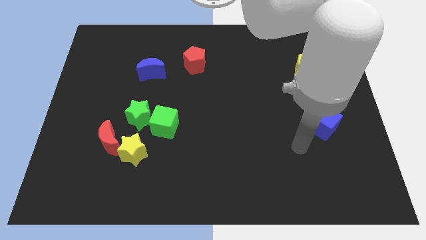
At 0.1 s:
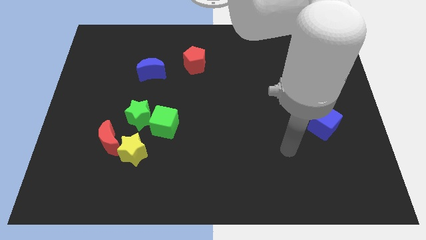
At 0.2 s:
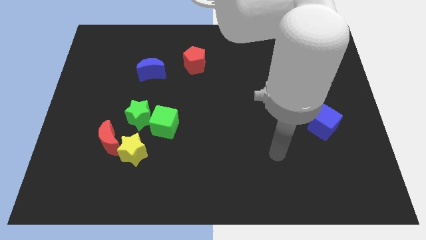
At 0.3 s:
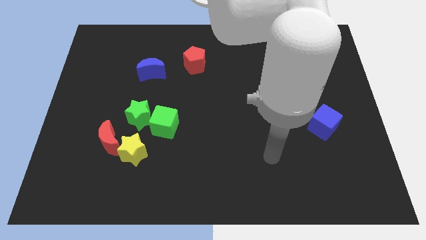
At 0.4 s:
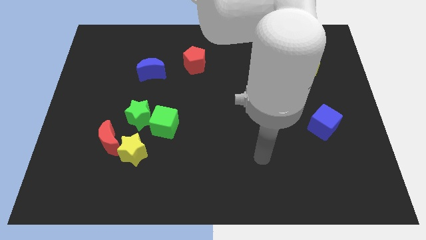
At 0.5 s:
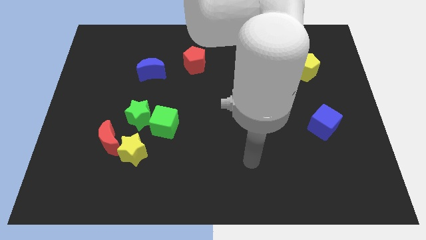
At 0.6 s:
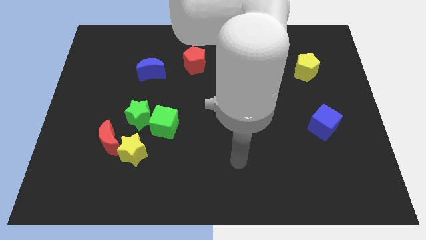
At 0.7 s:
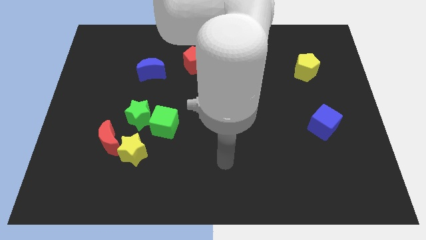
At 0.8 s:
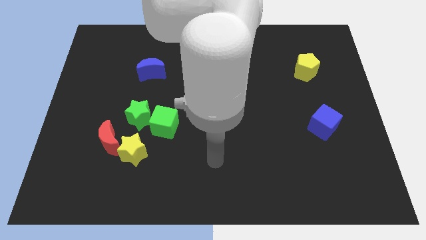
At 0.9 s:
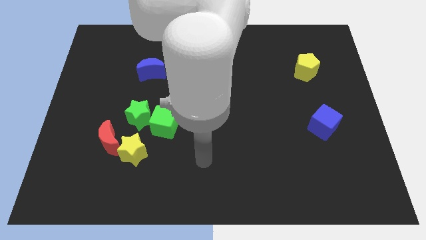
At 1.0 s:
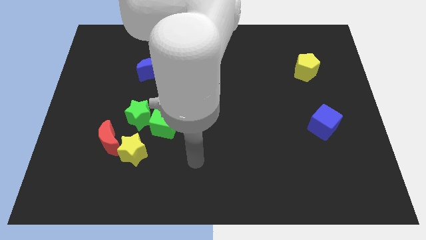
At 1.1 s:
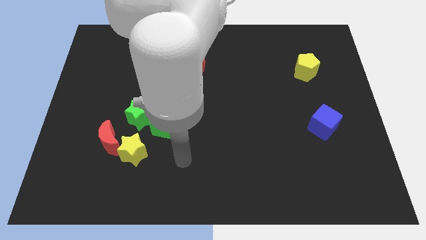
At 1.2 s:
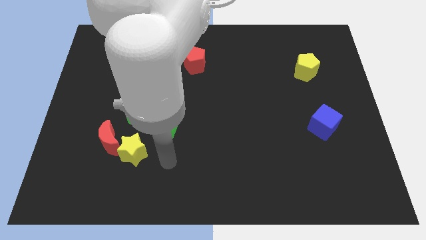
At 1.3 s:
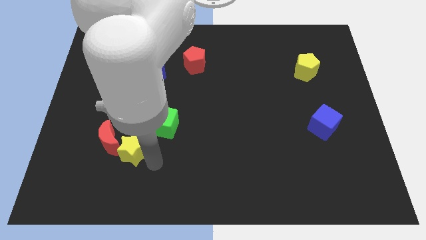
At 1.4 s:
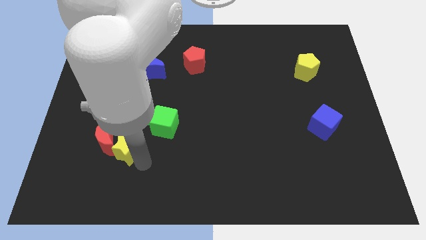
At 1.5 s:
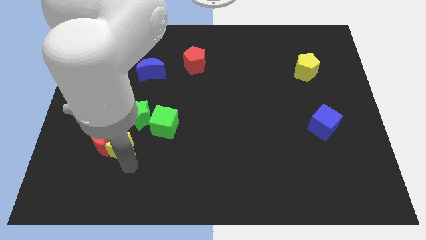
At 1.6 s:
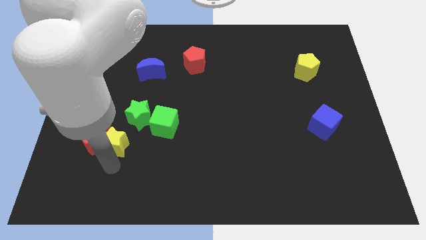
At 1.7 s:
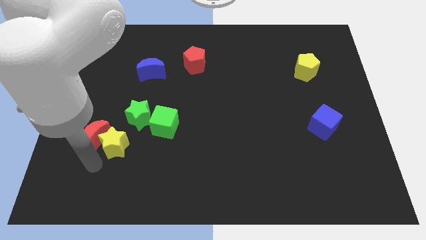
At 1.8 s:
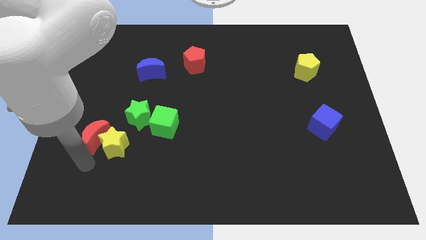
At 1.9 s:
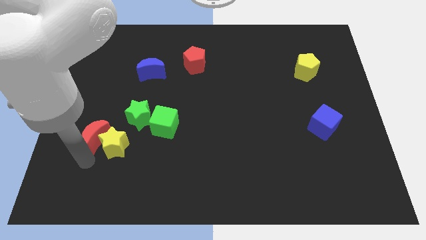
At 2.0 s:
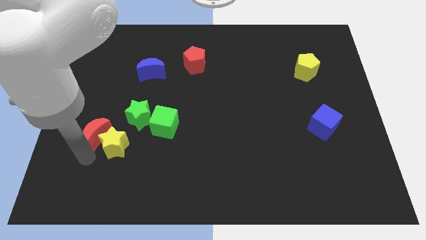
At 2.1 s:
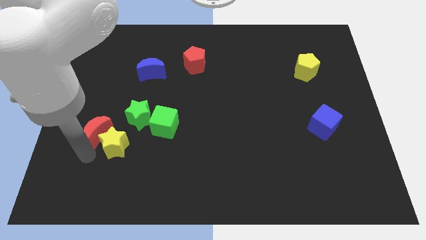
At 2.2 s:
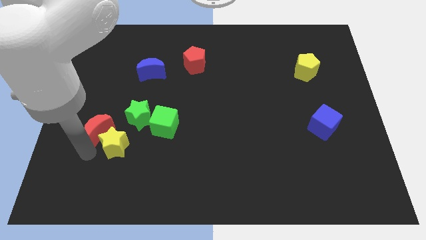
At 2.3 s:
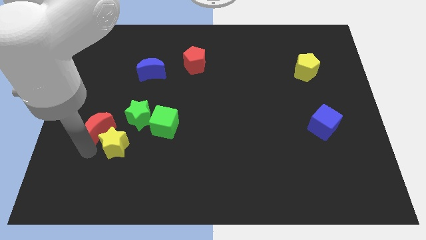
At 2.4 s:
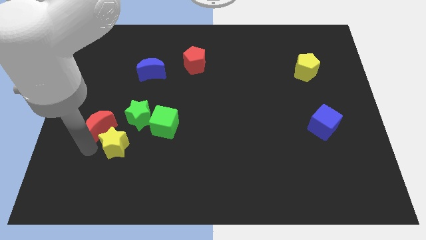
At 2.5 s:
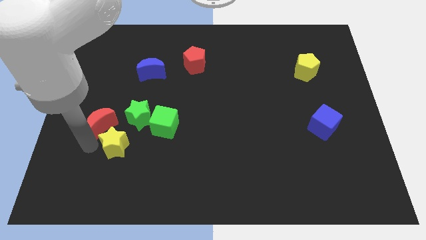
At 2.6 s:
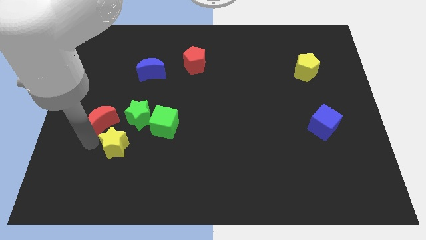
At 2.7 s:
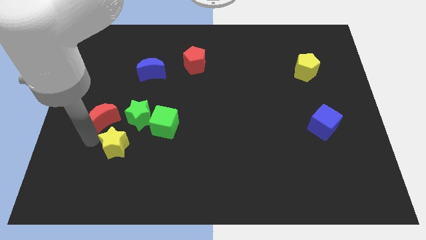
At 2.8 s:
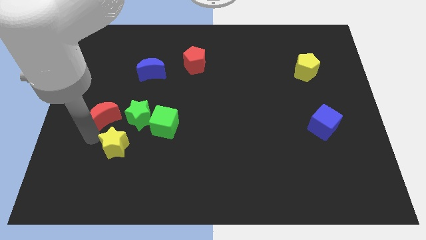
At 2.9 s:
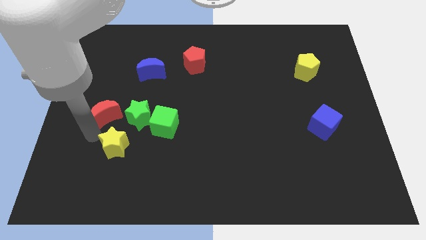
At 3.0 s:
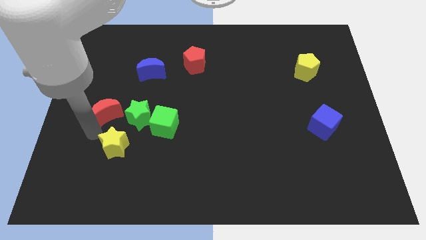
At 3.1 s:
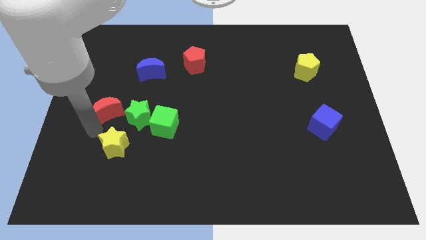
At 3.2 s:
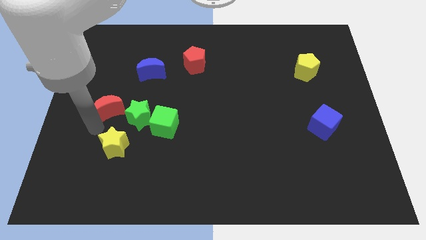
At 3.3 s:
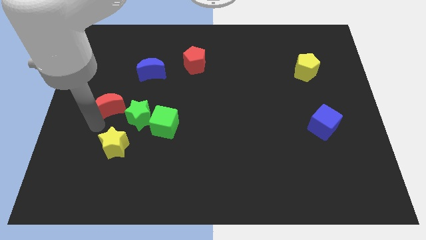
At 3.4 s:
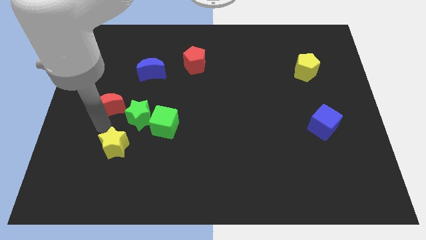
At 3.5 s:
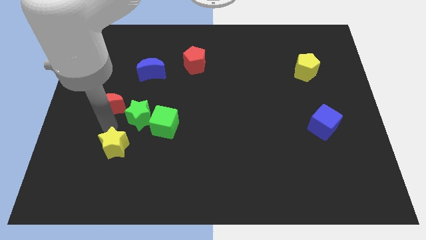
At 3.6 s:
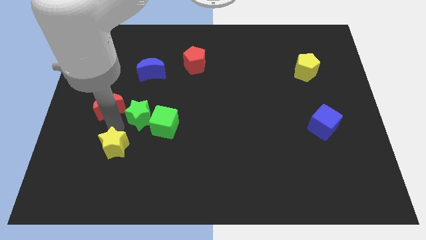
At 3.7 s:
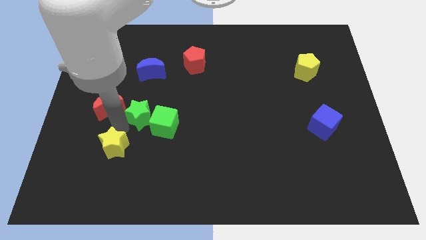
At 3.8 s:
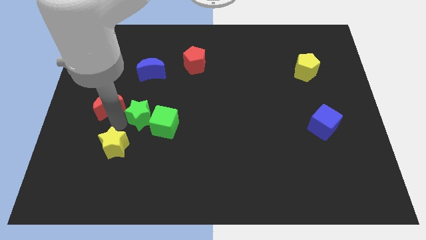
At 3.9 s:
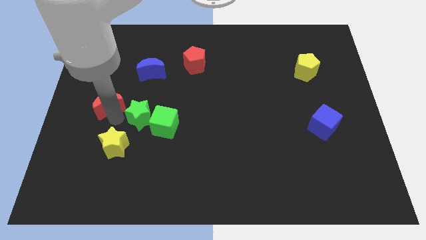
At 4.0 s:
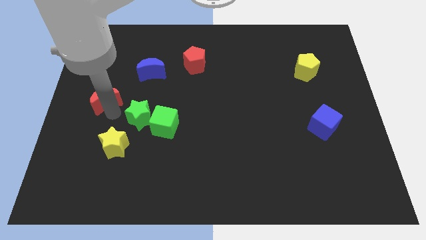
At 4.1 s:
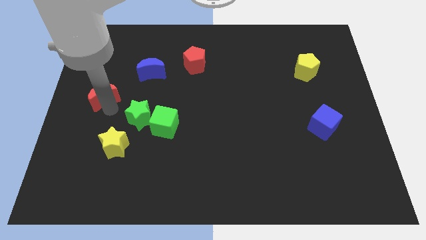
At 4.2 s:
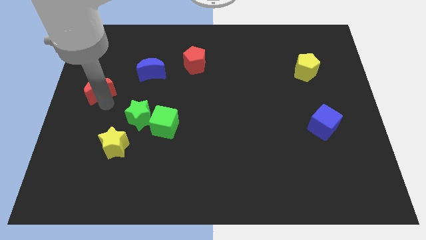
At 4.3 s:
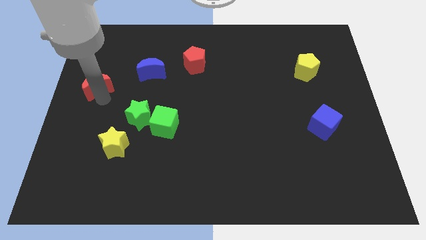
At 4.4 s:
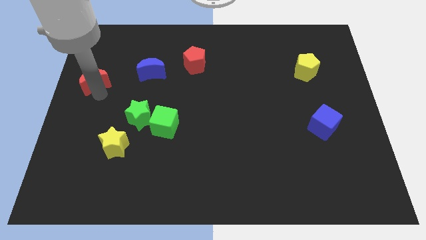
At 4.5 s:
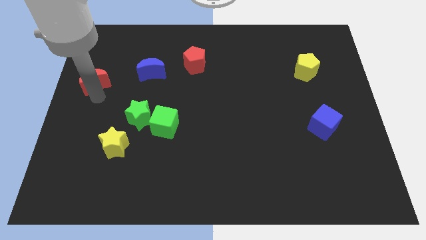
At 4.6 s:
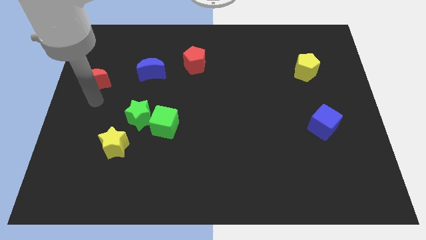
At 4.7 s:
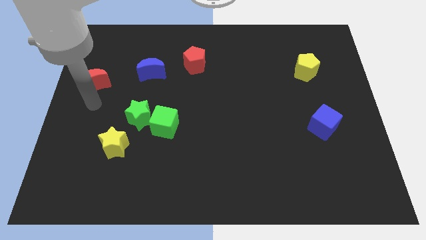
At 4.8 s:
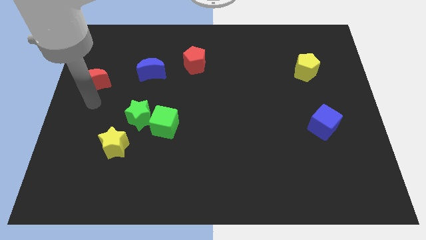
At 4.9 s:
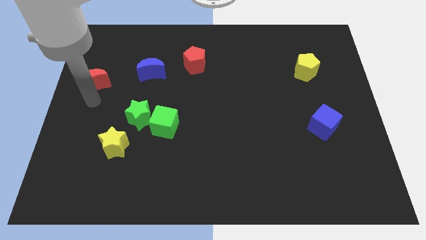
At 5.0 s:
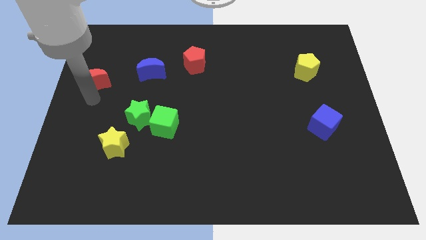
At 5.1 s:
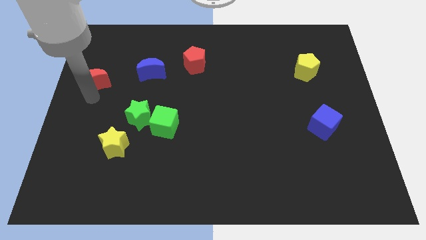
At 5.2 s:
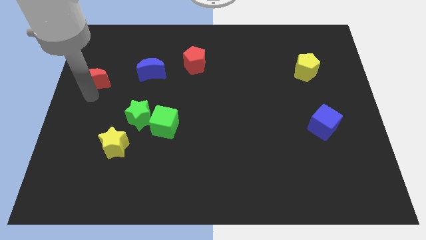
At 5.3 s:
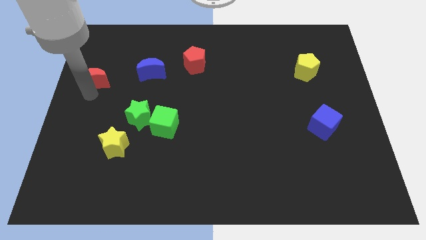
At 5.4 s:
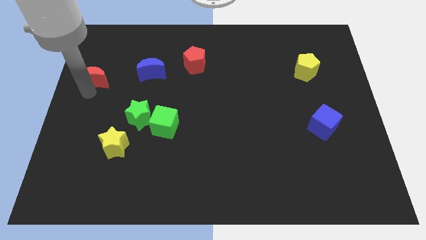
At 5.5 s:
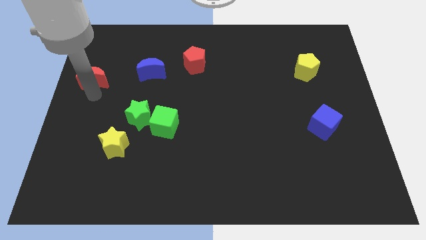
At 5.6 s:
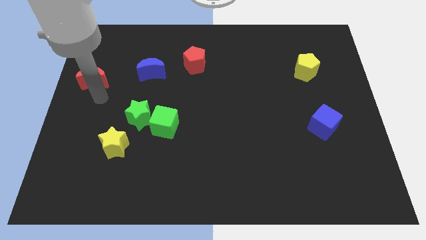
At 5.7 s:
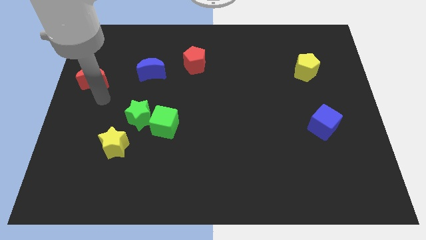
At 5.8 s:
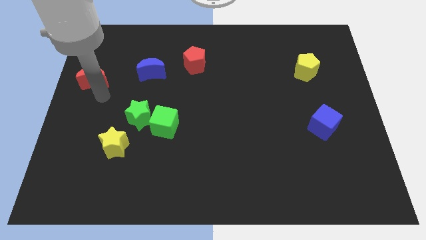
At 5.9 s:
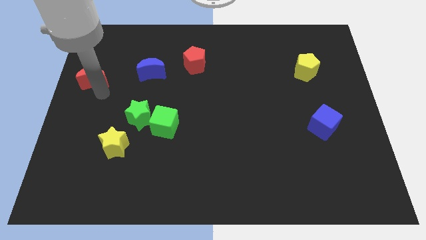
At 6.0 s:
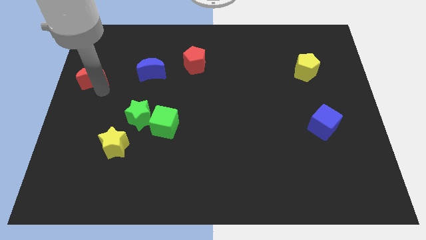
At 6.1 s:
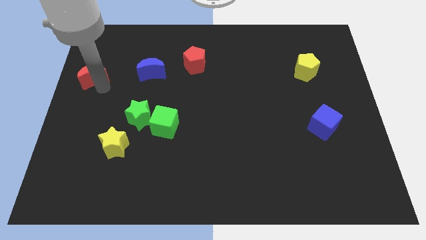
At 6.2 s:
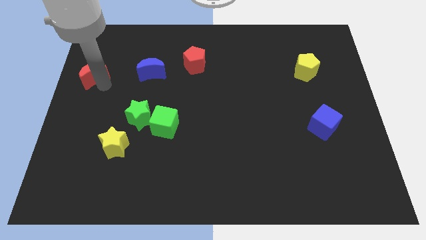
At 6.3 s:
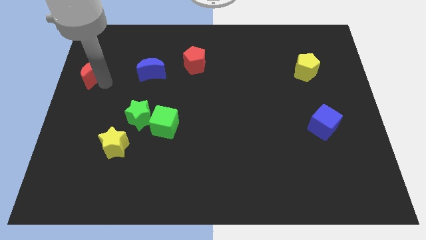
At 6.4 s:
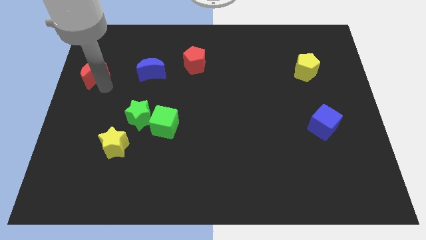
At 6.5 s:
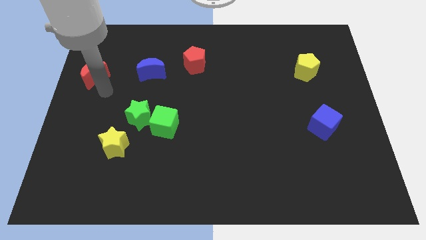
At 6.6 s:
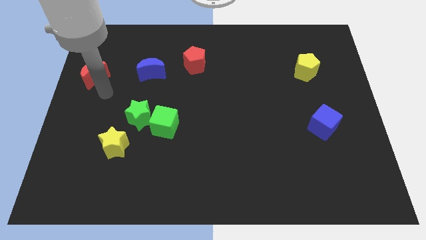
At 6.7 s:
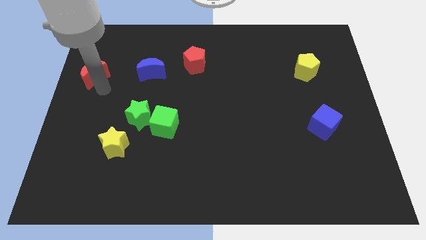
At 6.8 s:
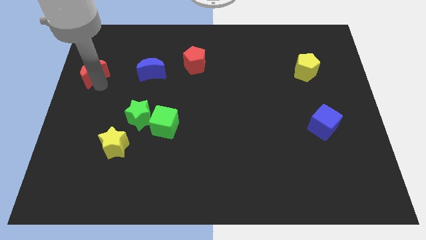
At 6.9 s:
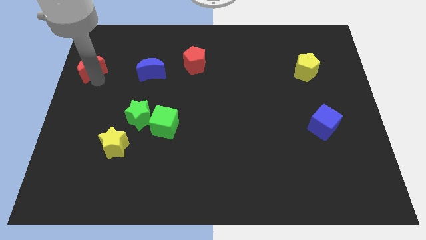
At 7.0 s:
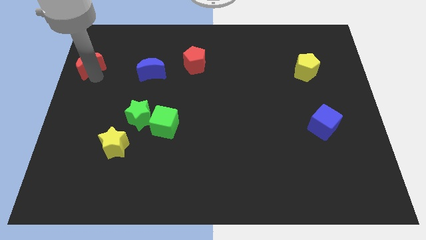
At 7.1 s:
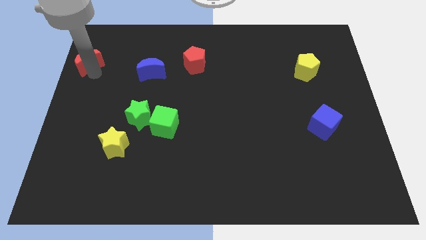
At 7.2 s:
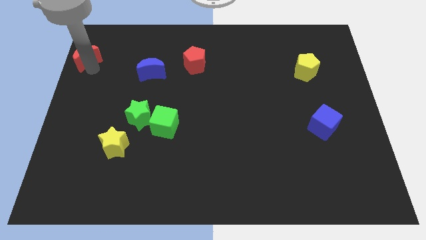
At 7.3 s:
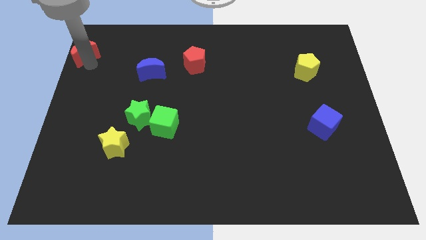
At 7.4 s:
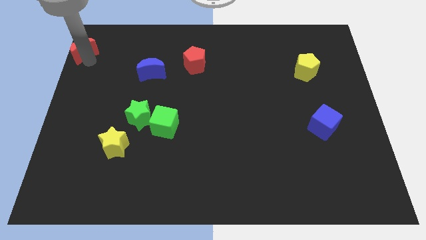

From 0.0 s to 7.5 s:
push the red moon to the top left

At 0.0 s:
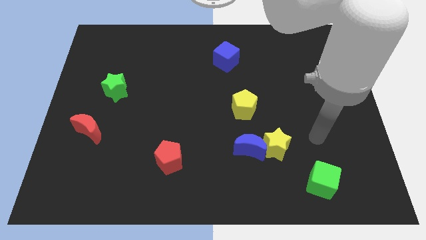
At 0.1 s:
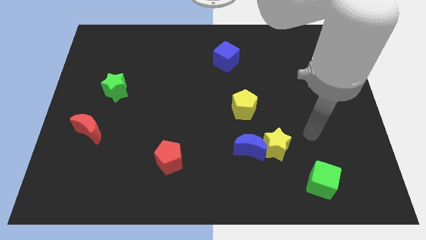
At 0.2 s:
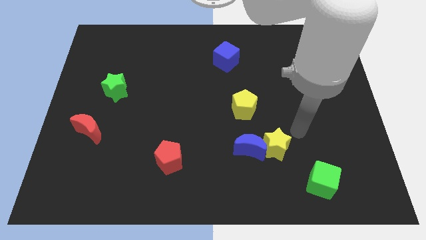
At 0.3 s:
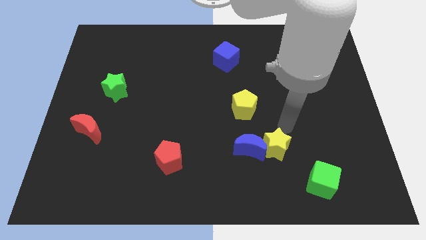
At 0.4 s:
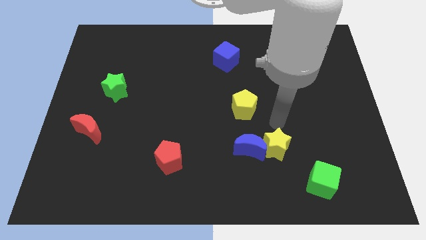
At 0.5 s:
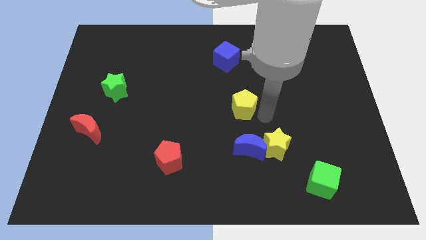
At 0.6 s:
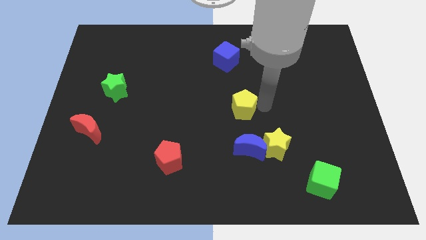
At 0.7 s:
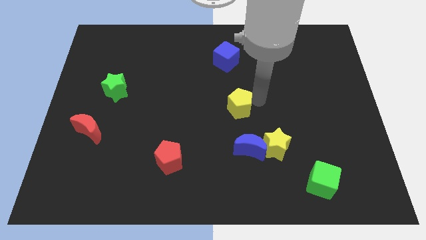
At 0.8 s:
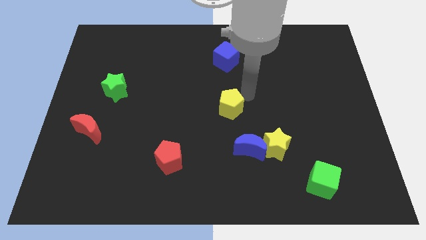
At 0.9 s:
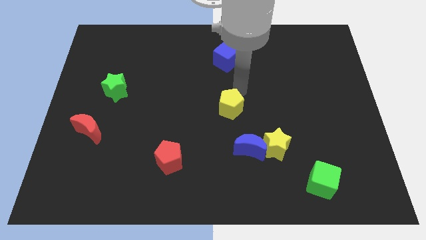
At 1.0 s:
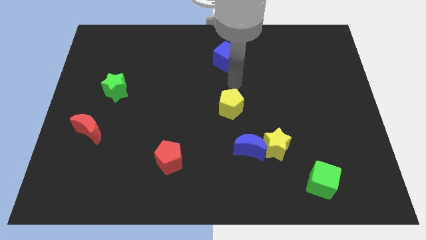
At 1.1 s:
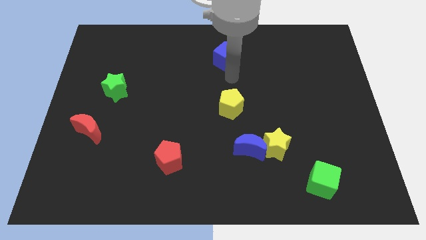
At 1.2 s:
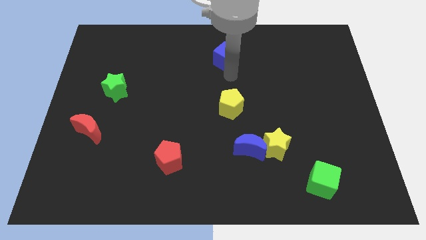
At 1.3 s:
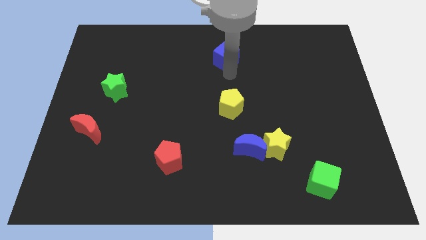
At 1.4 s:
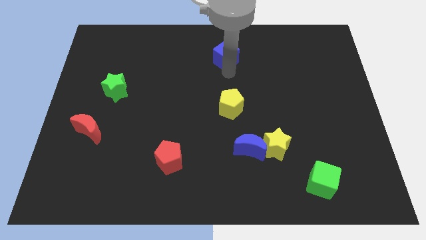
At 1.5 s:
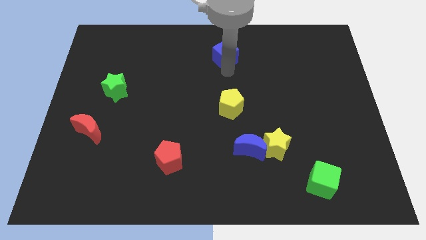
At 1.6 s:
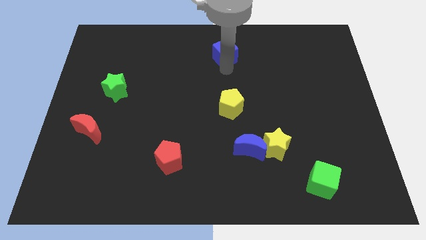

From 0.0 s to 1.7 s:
slide the blue cube to the top side
